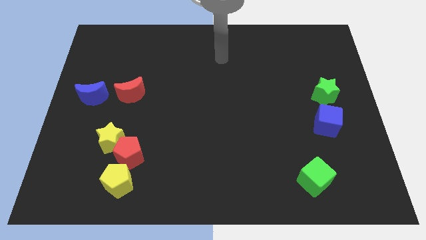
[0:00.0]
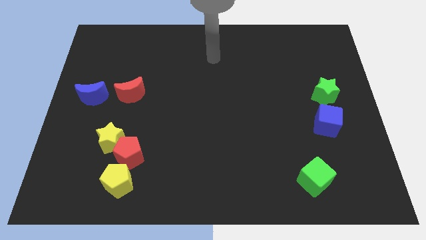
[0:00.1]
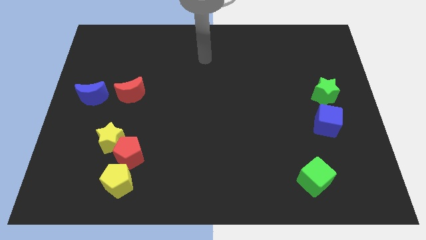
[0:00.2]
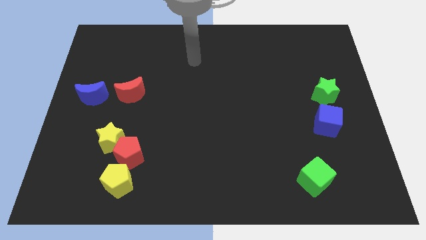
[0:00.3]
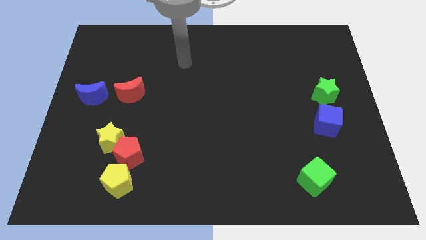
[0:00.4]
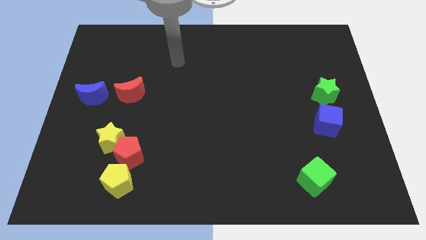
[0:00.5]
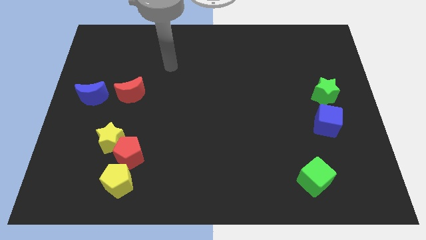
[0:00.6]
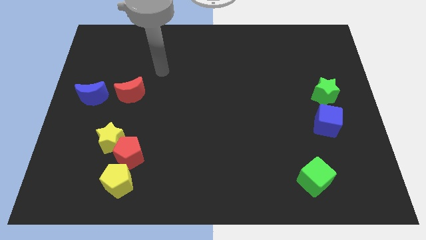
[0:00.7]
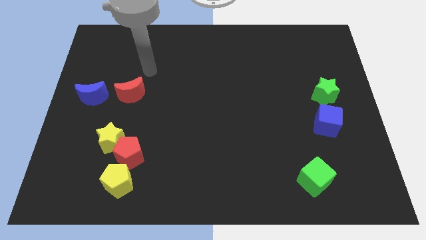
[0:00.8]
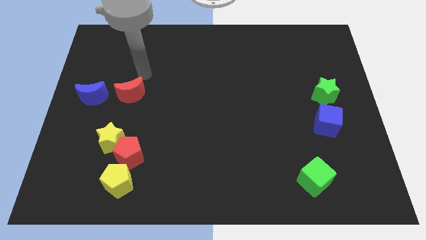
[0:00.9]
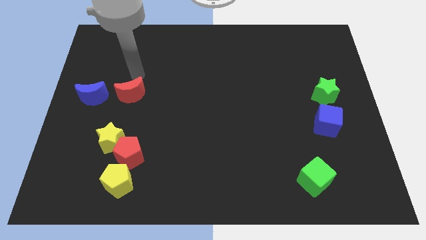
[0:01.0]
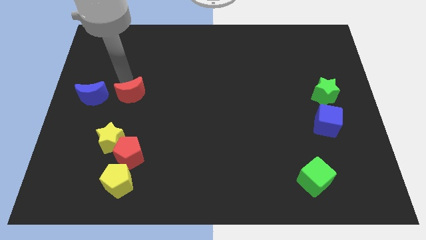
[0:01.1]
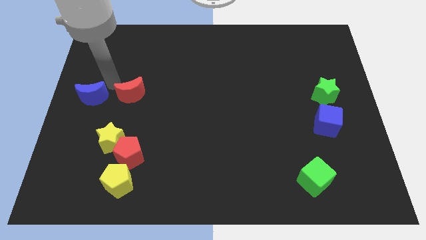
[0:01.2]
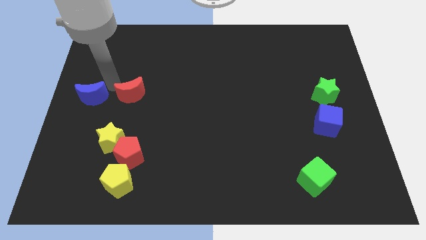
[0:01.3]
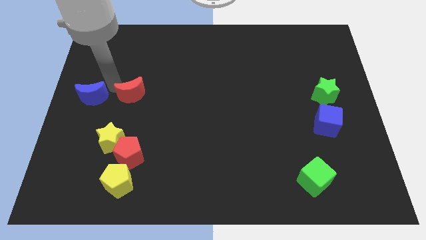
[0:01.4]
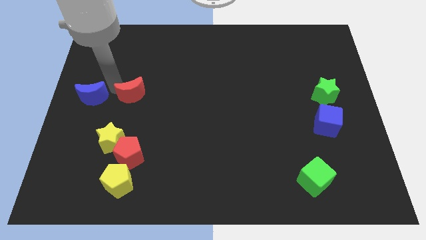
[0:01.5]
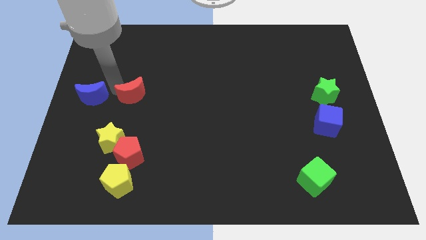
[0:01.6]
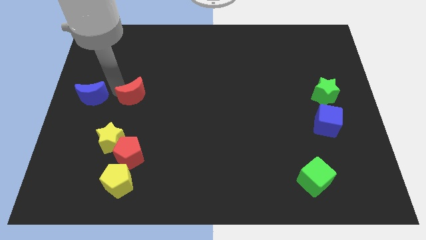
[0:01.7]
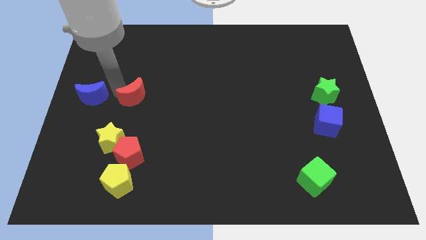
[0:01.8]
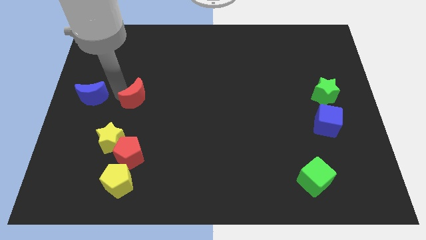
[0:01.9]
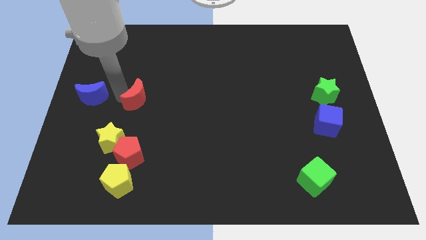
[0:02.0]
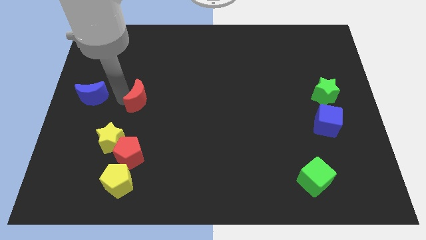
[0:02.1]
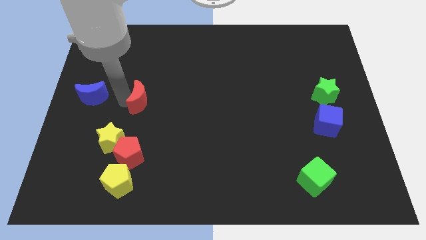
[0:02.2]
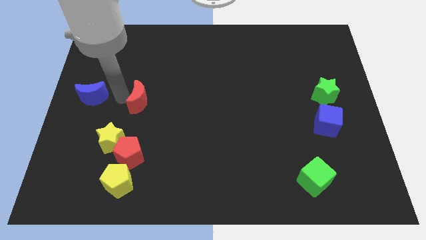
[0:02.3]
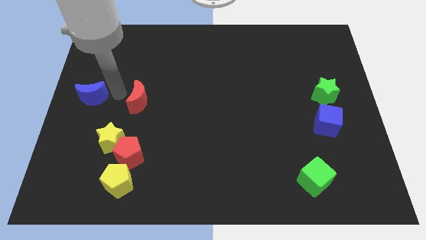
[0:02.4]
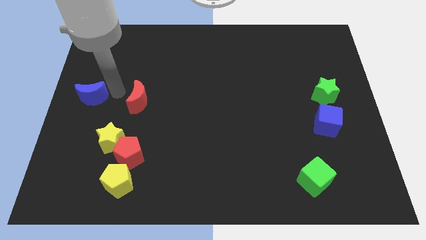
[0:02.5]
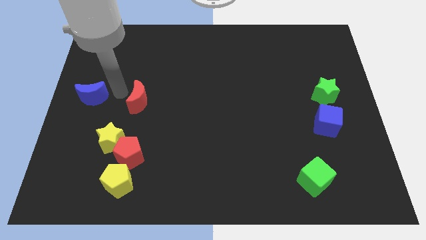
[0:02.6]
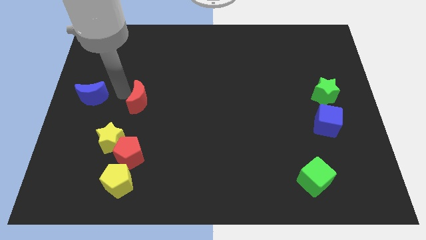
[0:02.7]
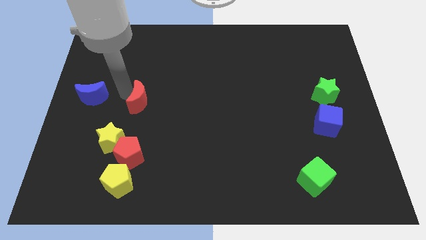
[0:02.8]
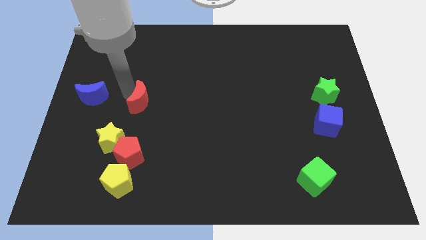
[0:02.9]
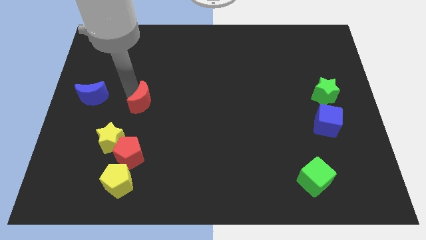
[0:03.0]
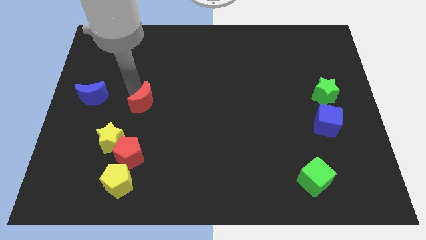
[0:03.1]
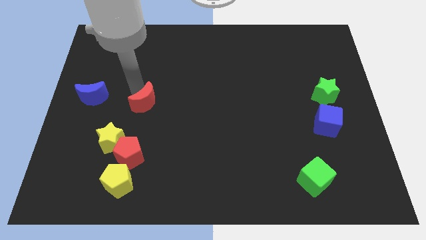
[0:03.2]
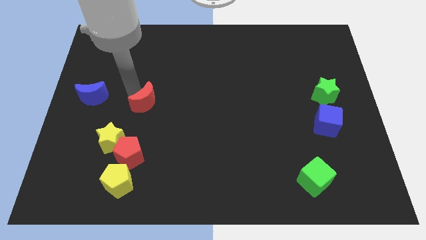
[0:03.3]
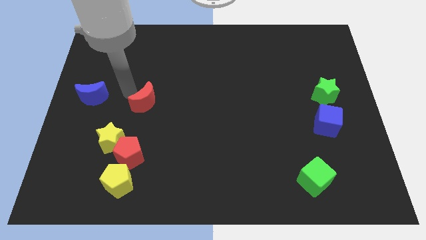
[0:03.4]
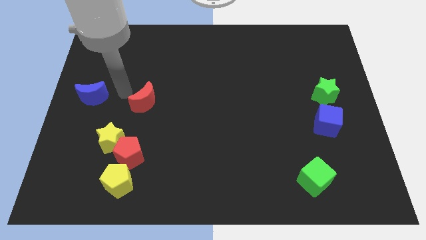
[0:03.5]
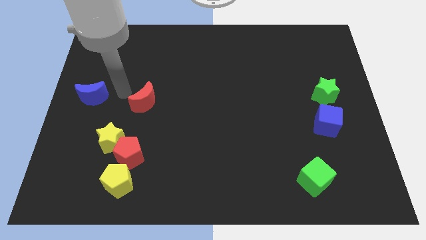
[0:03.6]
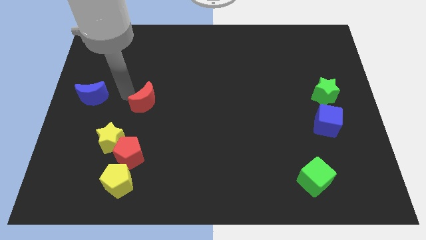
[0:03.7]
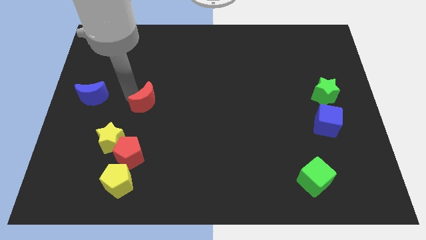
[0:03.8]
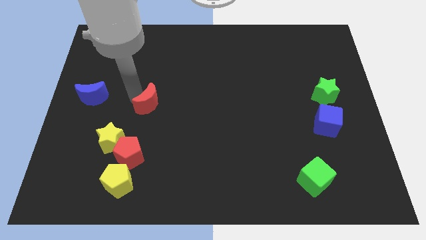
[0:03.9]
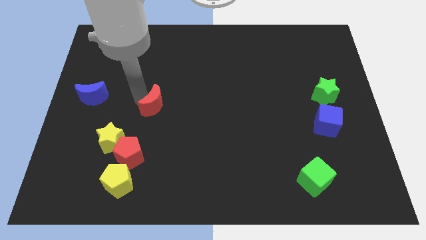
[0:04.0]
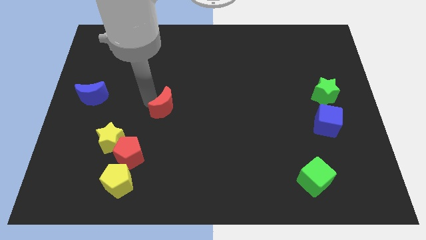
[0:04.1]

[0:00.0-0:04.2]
push the red moon down and to the right diagonally a little bit

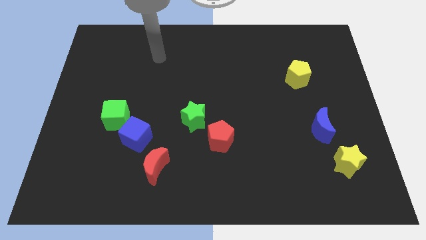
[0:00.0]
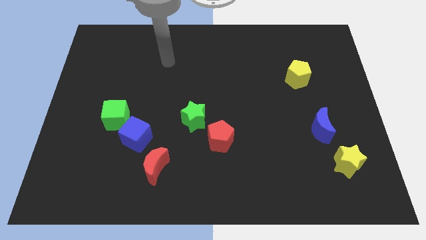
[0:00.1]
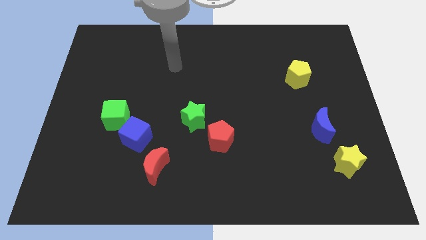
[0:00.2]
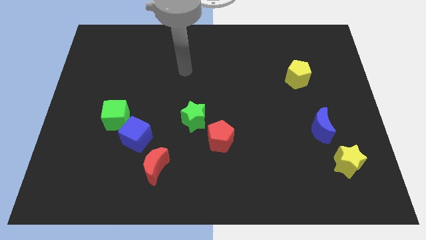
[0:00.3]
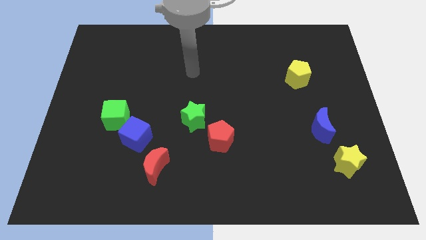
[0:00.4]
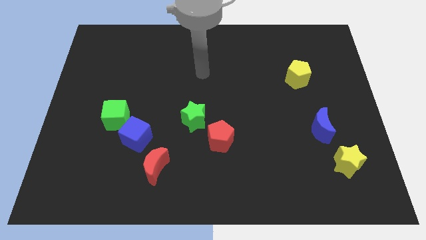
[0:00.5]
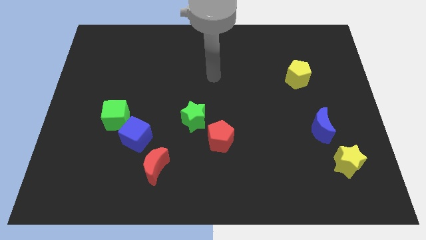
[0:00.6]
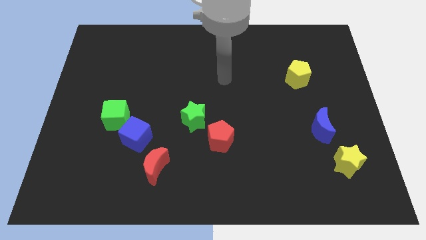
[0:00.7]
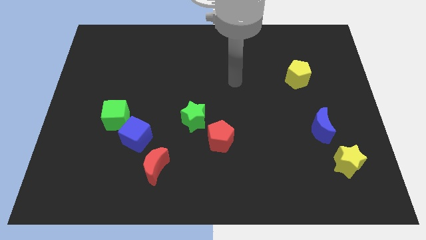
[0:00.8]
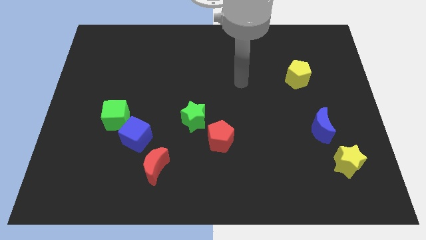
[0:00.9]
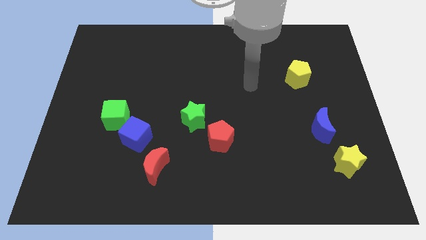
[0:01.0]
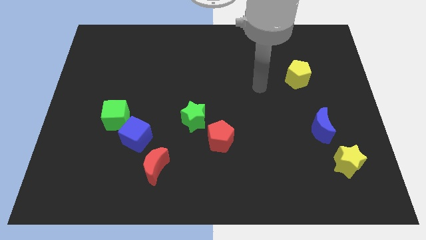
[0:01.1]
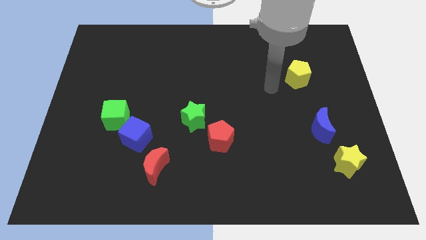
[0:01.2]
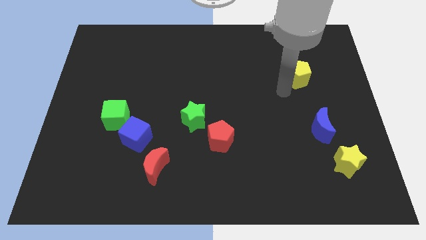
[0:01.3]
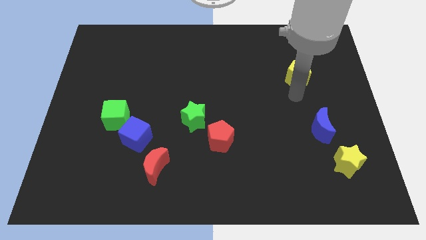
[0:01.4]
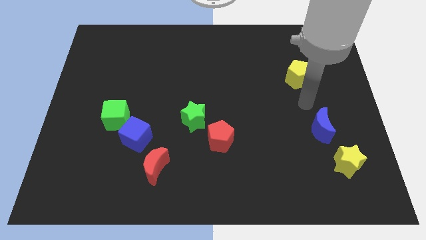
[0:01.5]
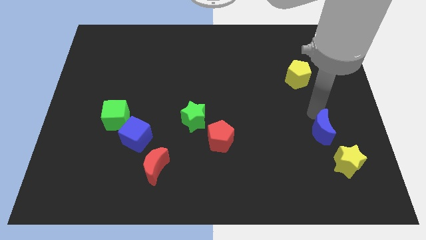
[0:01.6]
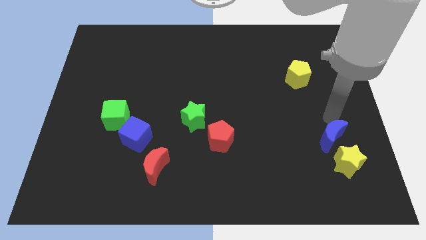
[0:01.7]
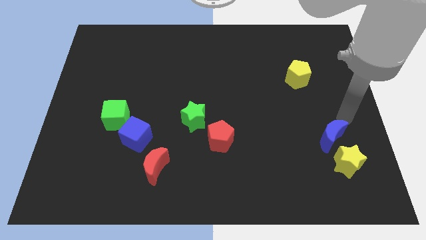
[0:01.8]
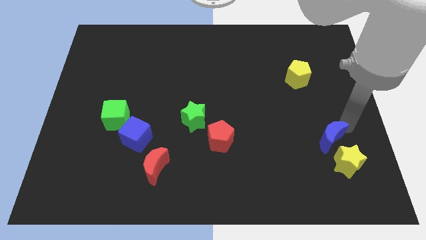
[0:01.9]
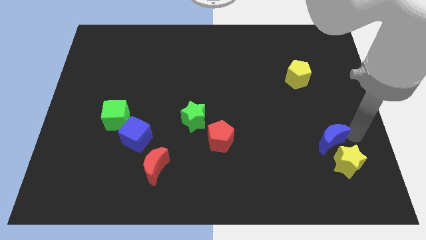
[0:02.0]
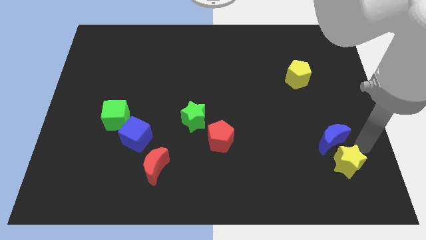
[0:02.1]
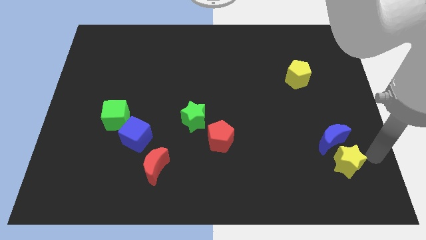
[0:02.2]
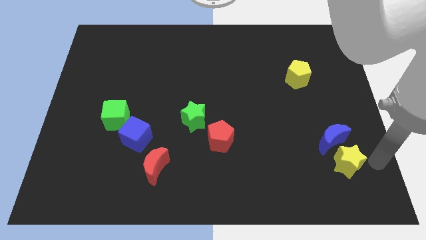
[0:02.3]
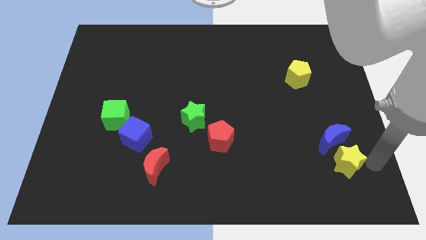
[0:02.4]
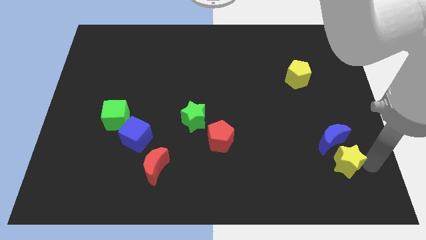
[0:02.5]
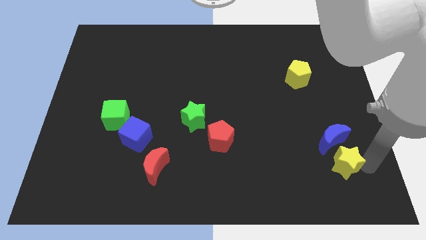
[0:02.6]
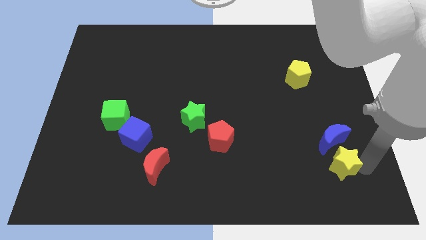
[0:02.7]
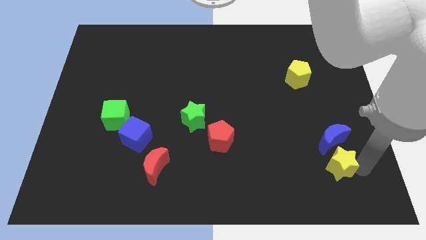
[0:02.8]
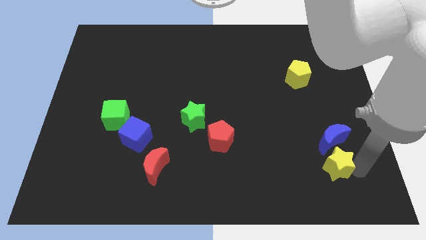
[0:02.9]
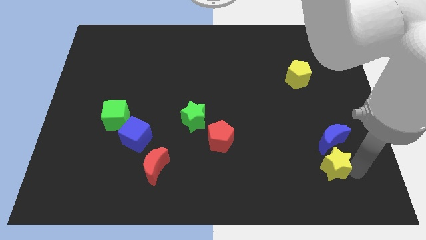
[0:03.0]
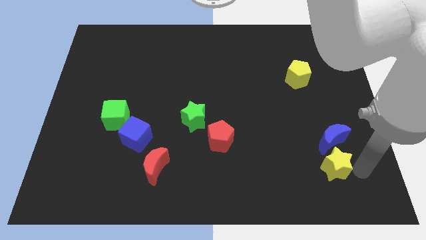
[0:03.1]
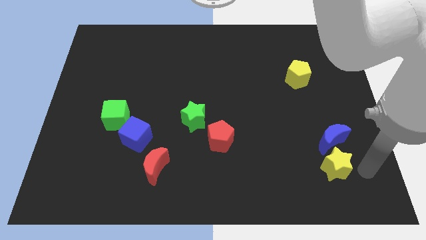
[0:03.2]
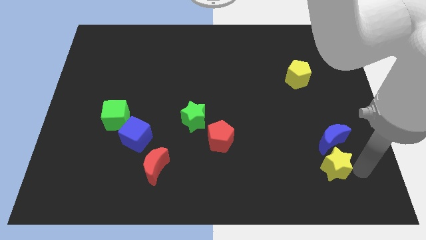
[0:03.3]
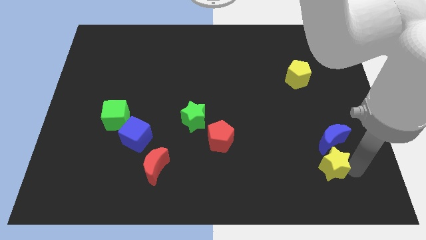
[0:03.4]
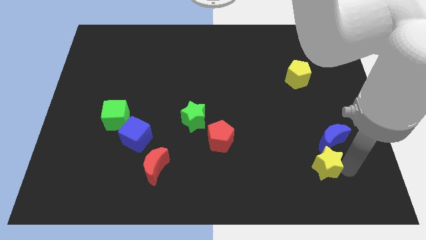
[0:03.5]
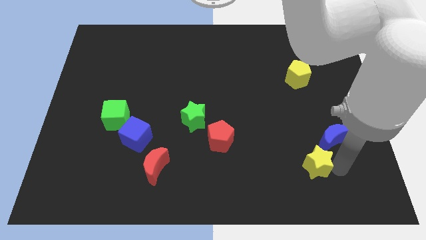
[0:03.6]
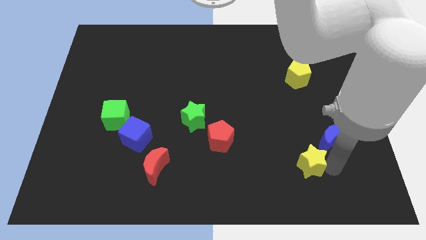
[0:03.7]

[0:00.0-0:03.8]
slide the yellow star to the left a little bit

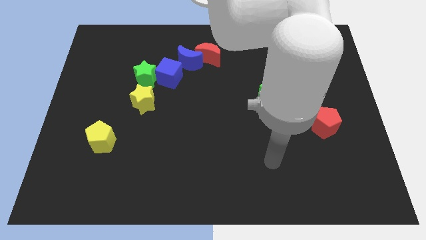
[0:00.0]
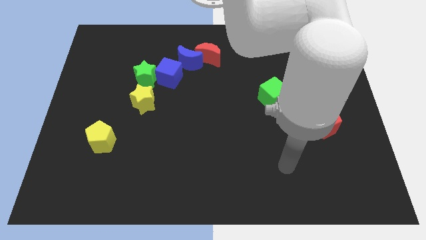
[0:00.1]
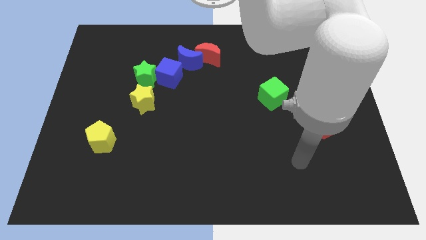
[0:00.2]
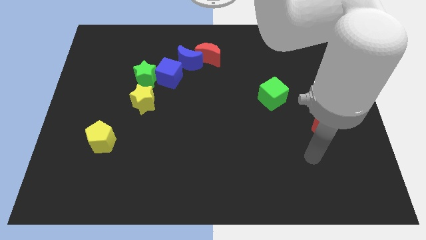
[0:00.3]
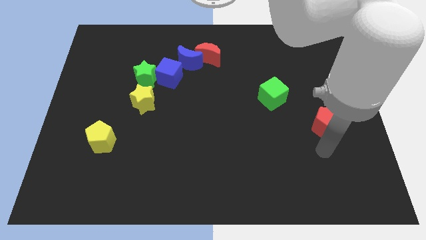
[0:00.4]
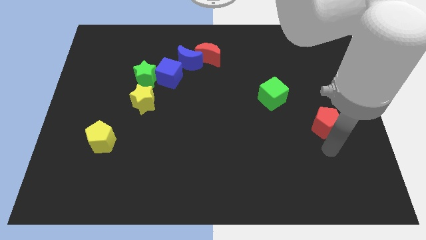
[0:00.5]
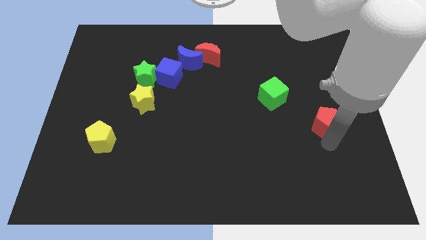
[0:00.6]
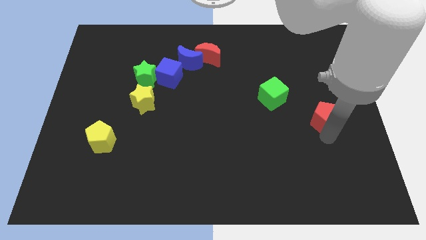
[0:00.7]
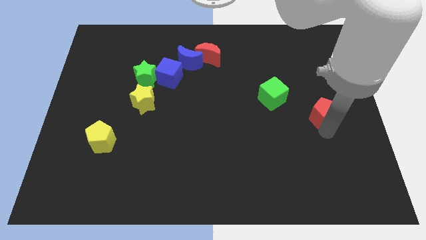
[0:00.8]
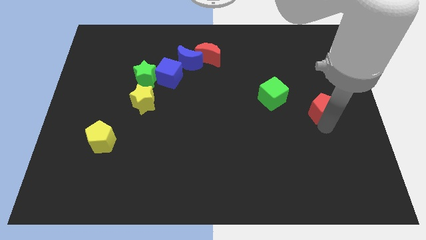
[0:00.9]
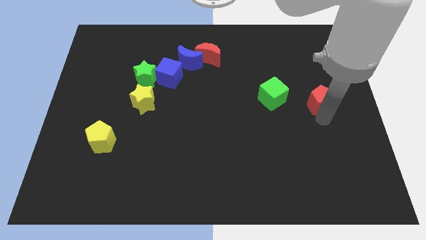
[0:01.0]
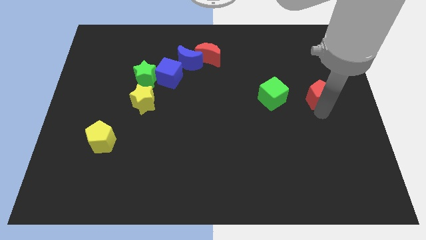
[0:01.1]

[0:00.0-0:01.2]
move the red pentagon upwards somewhat
